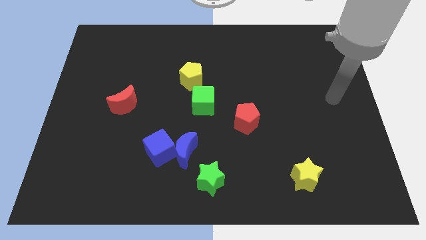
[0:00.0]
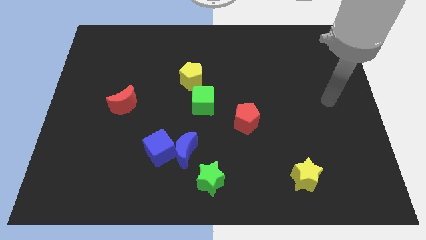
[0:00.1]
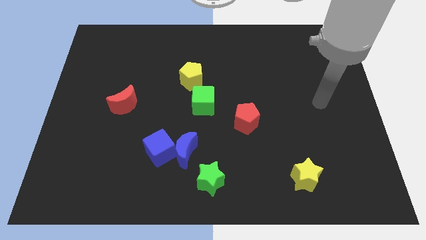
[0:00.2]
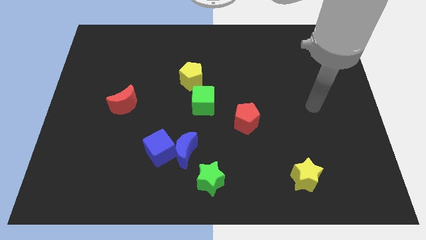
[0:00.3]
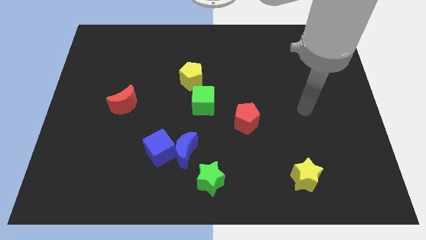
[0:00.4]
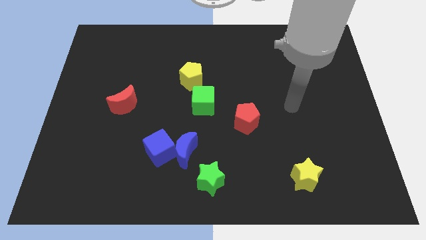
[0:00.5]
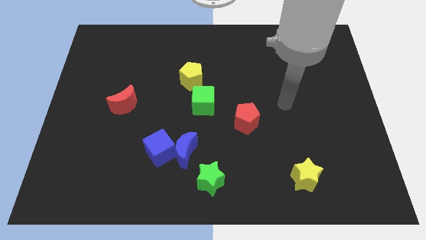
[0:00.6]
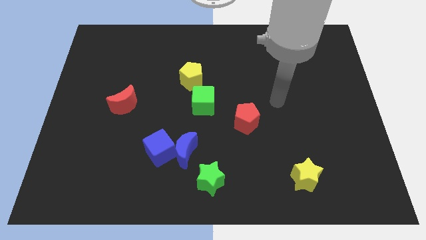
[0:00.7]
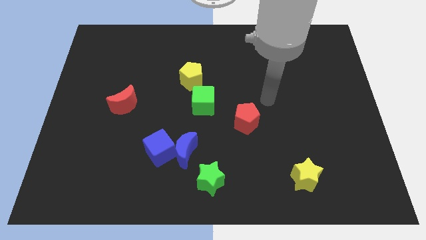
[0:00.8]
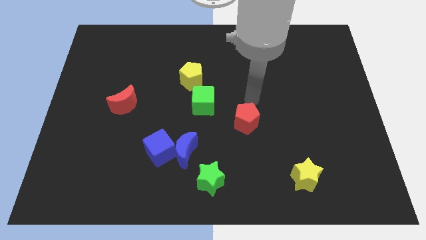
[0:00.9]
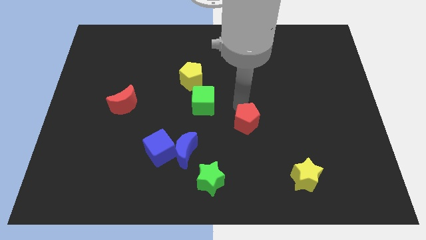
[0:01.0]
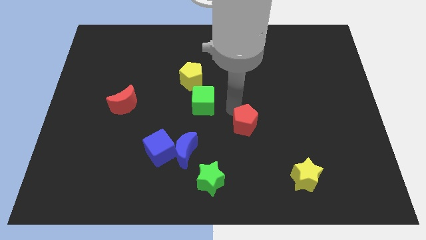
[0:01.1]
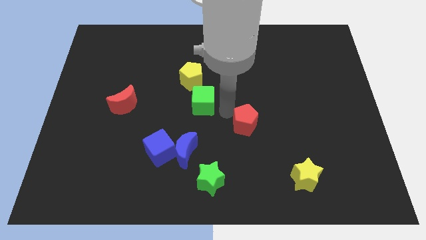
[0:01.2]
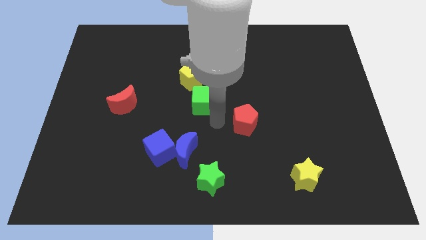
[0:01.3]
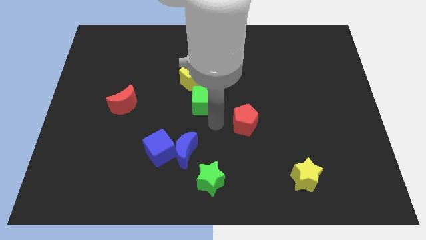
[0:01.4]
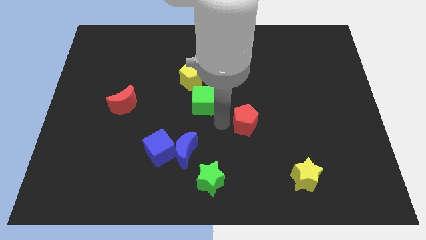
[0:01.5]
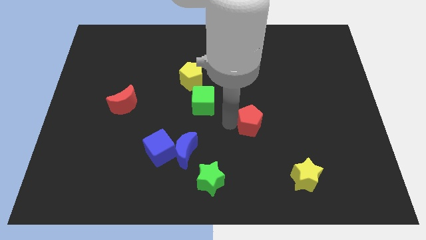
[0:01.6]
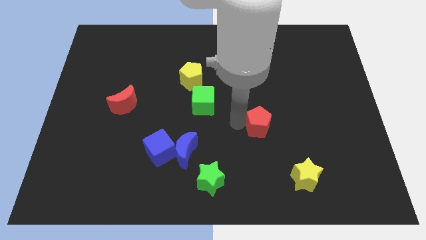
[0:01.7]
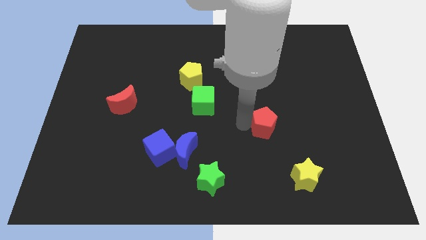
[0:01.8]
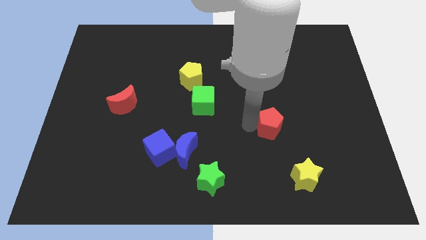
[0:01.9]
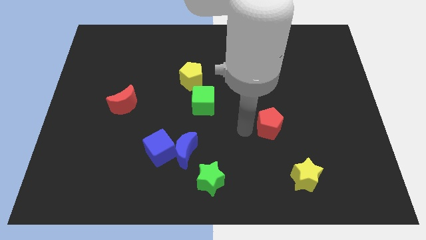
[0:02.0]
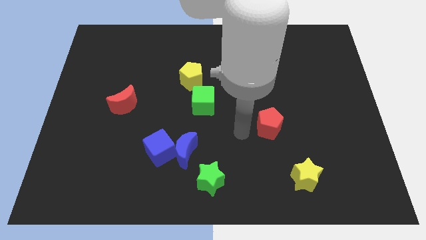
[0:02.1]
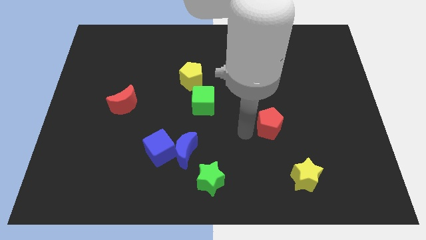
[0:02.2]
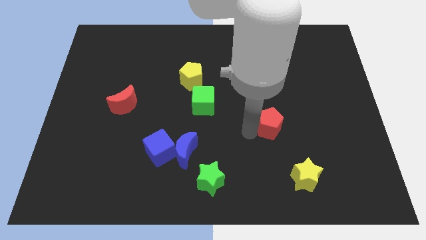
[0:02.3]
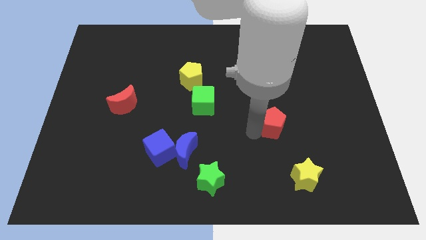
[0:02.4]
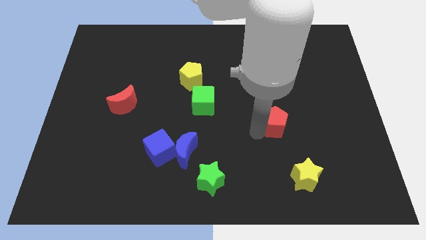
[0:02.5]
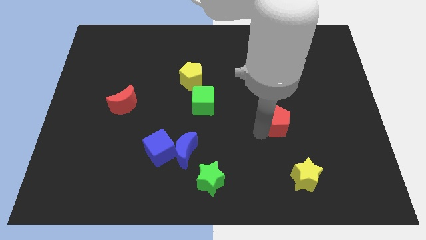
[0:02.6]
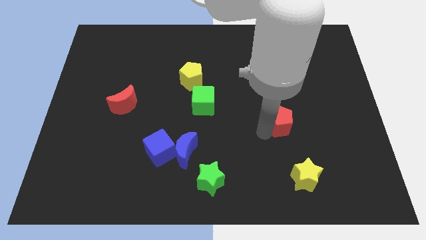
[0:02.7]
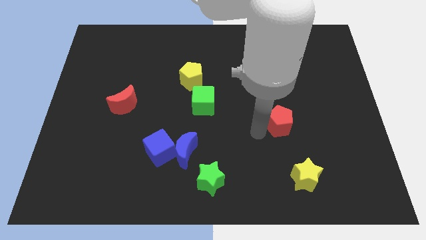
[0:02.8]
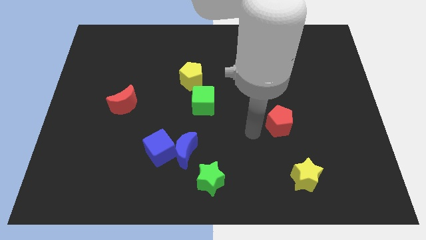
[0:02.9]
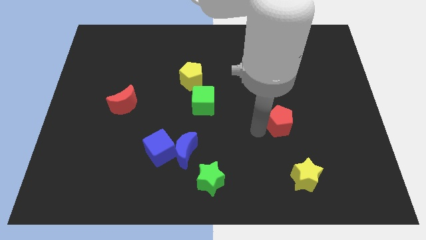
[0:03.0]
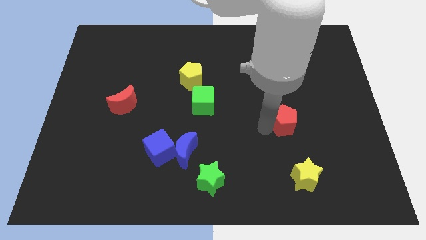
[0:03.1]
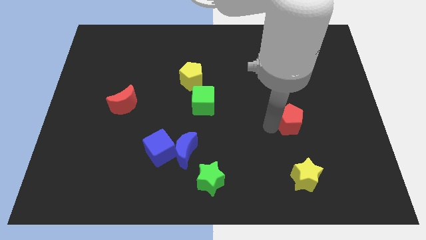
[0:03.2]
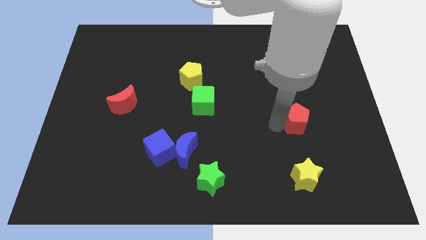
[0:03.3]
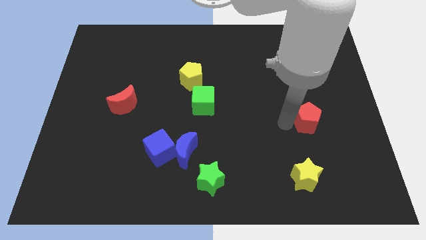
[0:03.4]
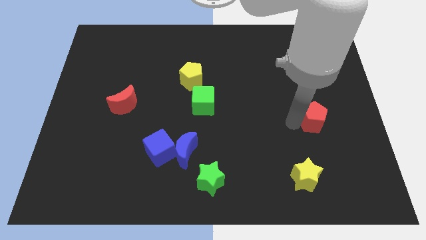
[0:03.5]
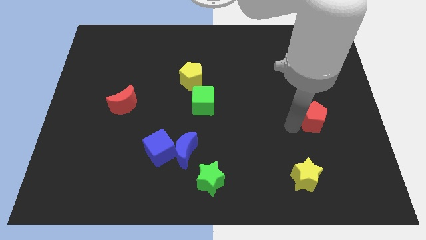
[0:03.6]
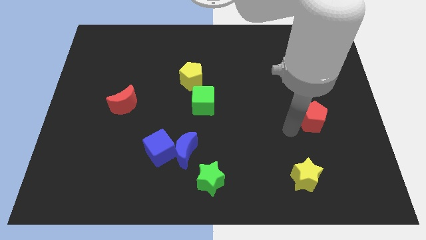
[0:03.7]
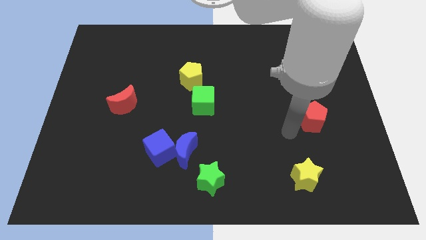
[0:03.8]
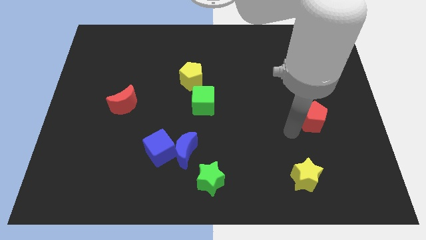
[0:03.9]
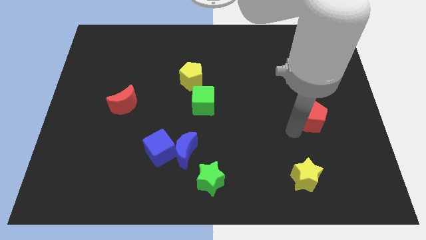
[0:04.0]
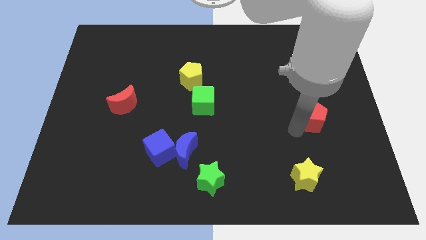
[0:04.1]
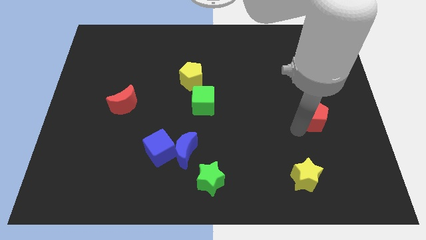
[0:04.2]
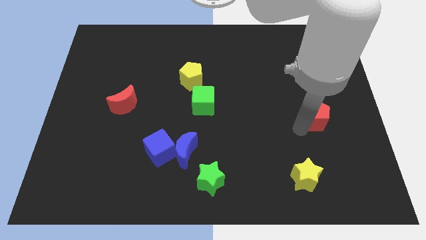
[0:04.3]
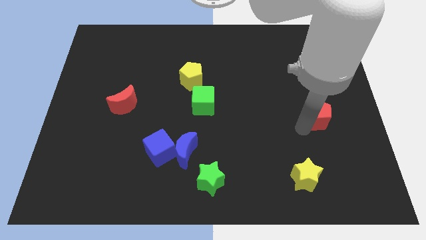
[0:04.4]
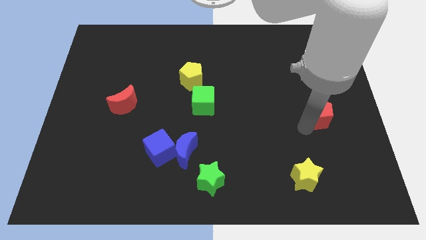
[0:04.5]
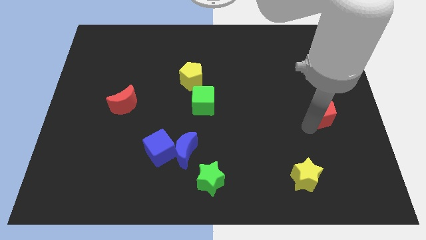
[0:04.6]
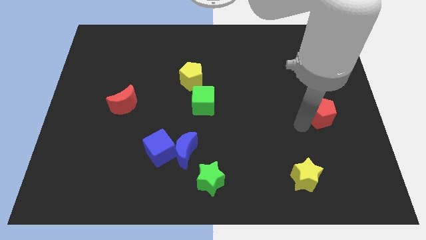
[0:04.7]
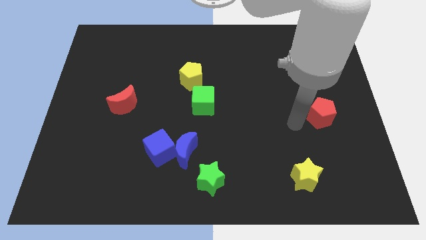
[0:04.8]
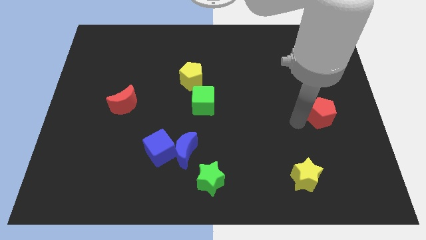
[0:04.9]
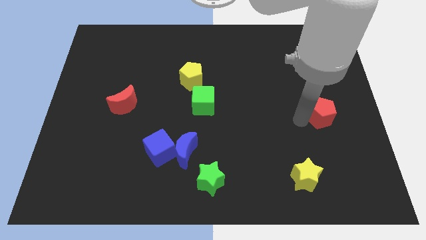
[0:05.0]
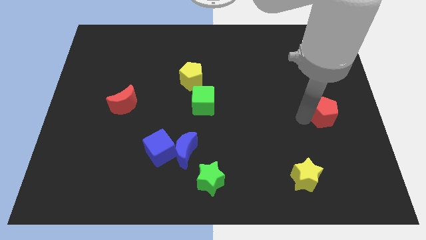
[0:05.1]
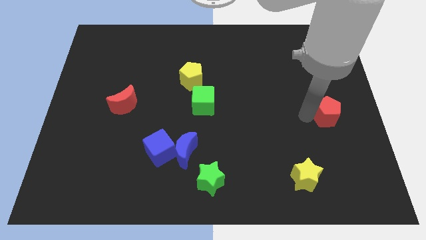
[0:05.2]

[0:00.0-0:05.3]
put the red pentagon to the center right

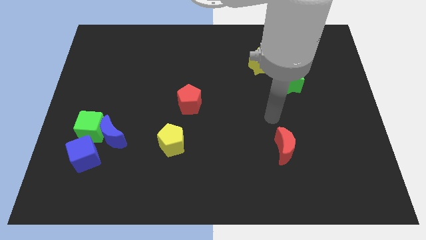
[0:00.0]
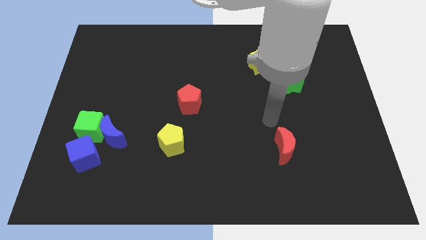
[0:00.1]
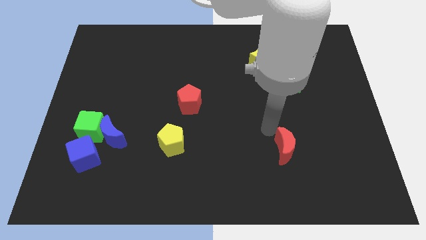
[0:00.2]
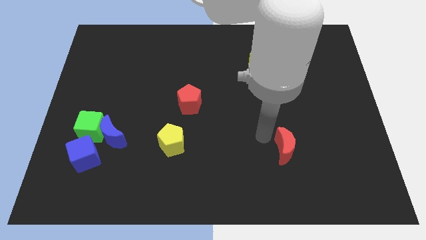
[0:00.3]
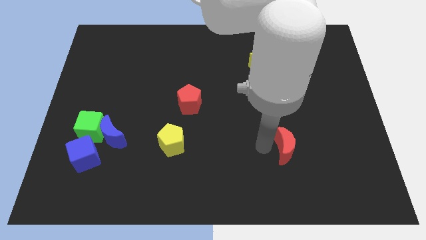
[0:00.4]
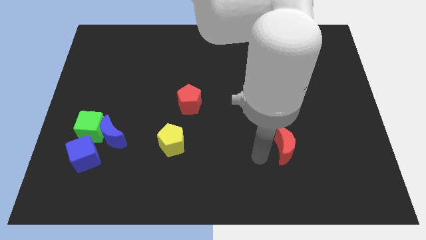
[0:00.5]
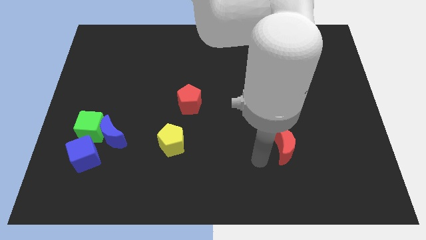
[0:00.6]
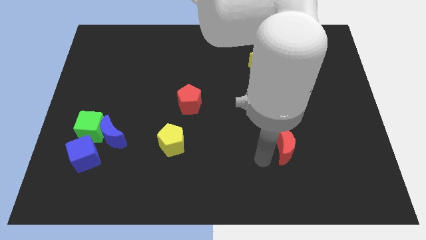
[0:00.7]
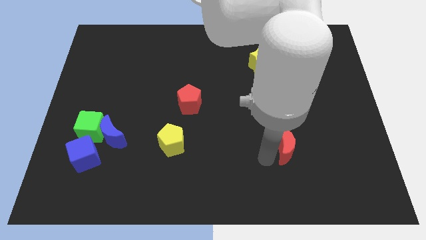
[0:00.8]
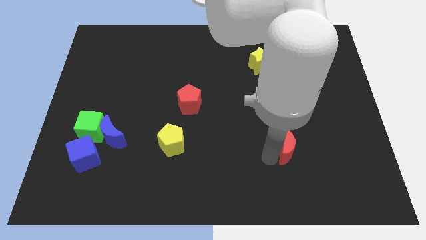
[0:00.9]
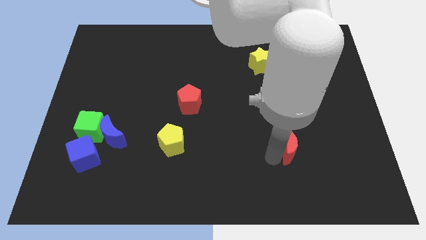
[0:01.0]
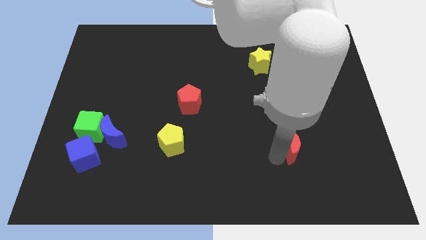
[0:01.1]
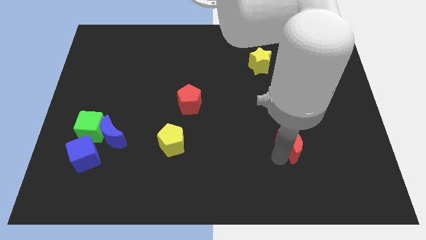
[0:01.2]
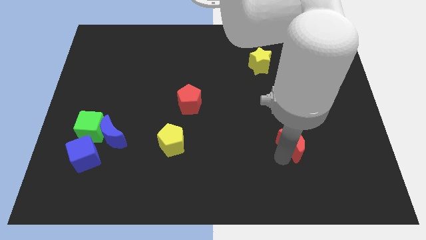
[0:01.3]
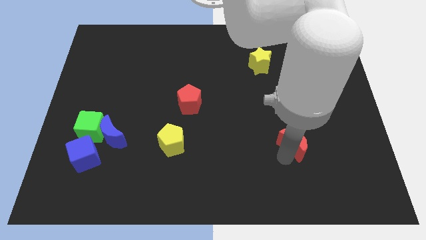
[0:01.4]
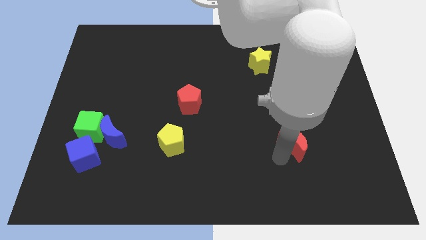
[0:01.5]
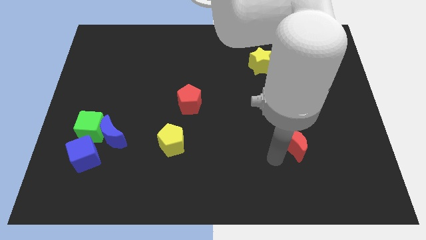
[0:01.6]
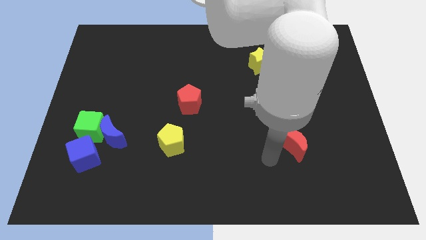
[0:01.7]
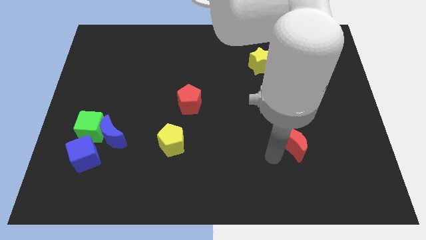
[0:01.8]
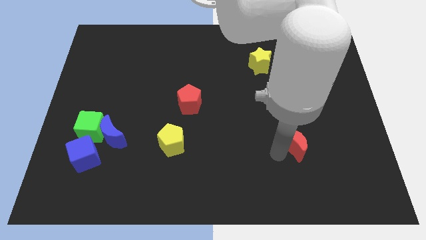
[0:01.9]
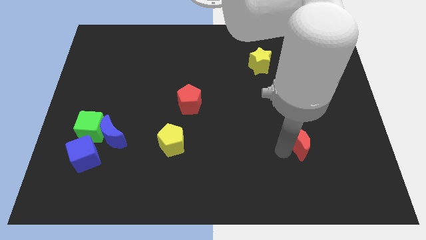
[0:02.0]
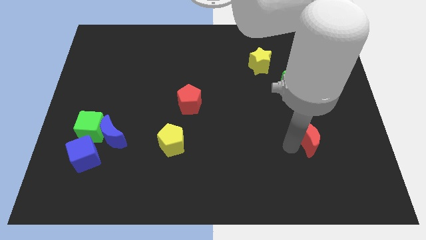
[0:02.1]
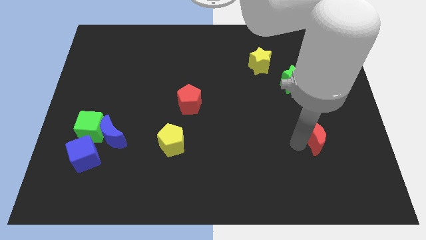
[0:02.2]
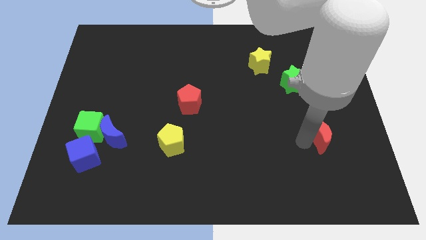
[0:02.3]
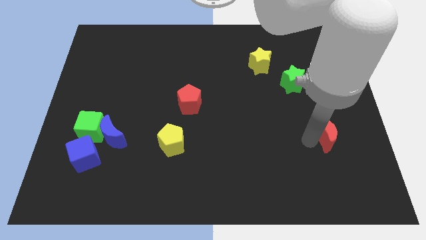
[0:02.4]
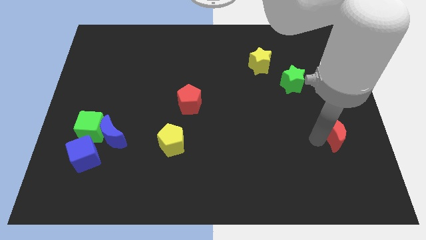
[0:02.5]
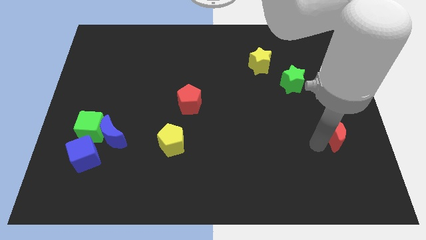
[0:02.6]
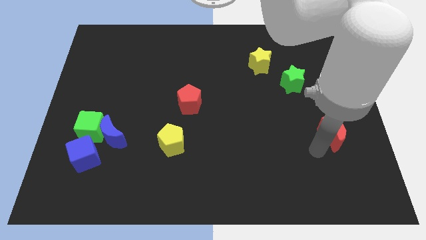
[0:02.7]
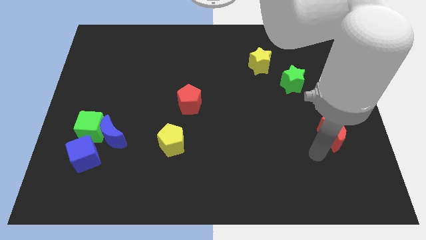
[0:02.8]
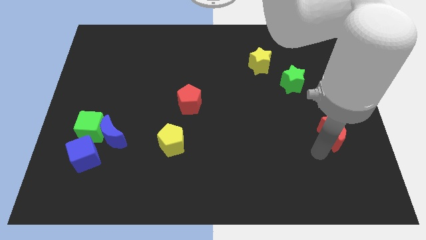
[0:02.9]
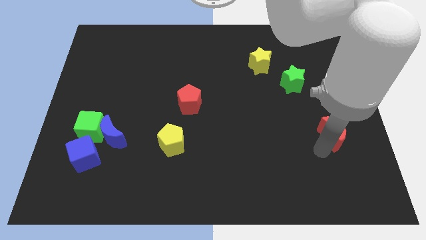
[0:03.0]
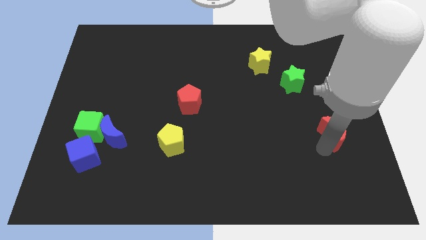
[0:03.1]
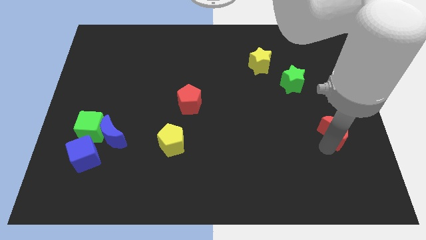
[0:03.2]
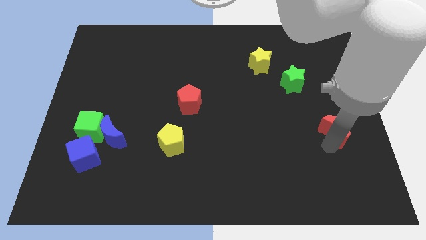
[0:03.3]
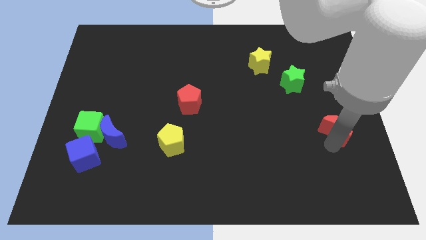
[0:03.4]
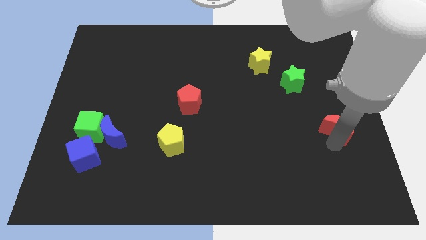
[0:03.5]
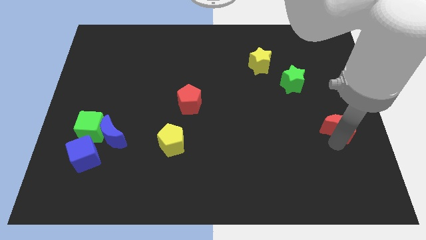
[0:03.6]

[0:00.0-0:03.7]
push the red moon to the right side of the board
